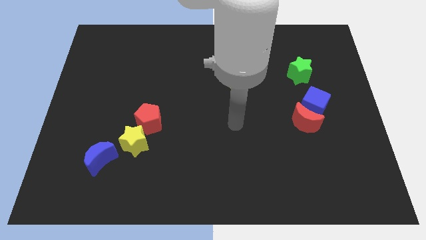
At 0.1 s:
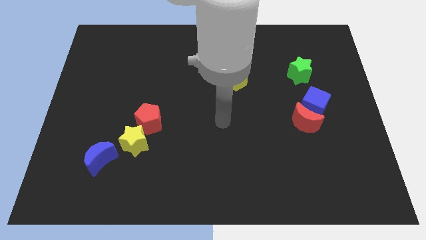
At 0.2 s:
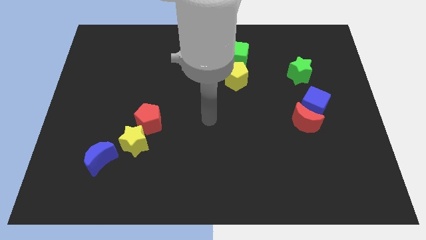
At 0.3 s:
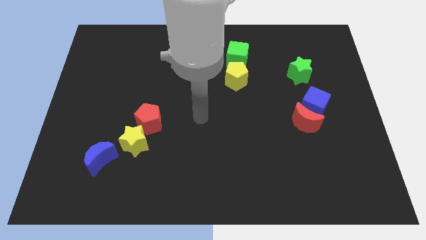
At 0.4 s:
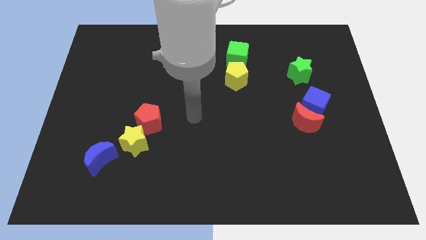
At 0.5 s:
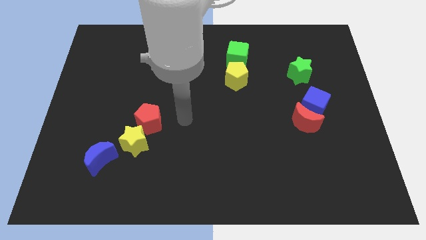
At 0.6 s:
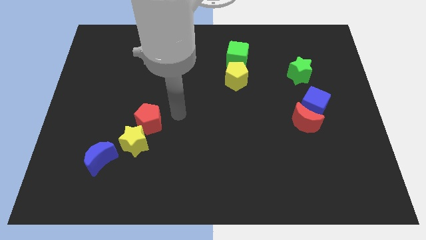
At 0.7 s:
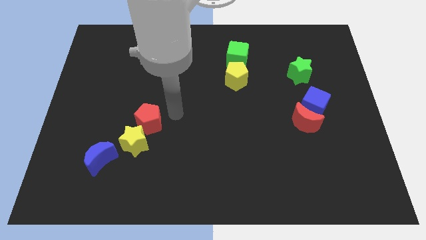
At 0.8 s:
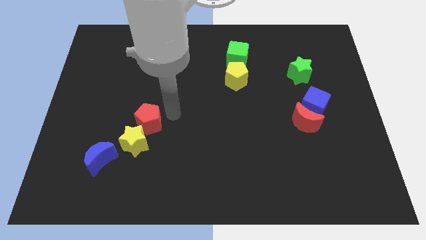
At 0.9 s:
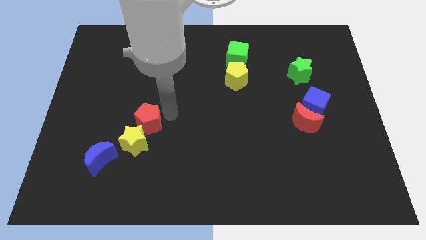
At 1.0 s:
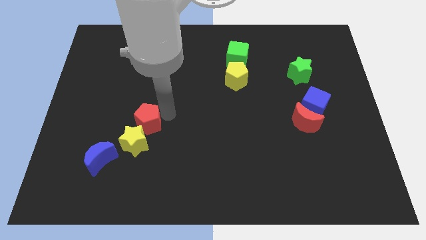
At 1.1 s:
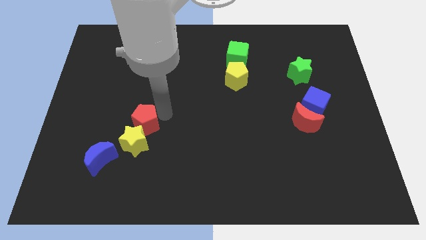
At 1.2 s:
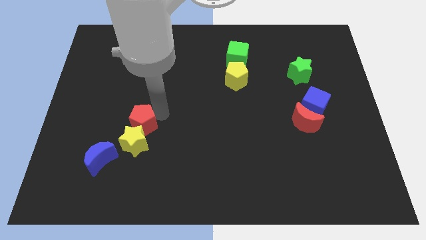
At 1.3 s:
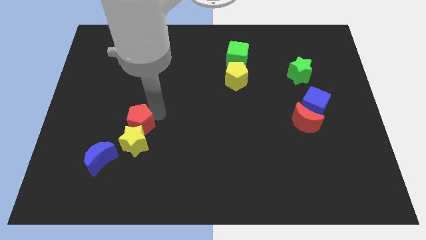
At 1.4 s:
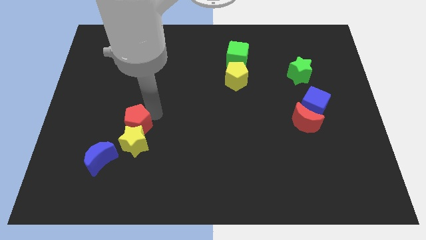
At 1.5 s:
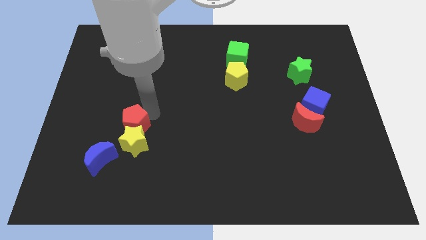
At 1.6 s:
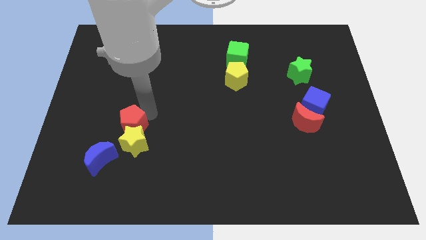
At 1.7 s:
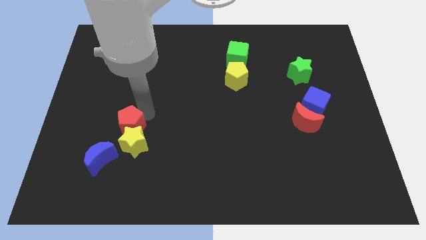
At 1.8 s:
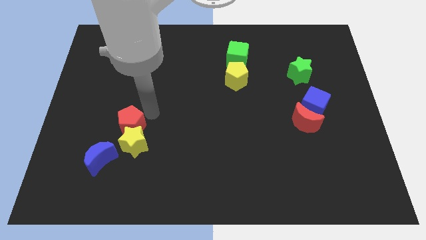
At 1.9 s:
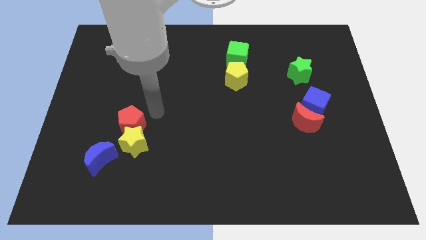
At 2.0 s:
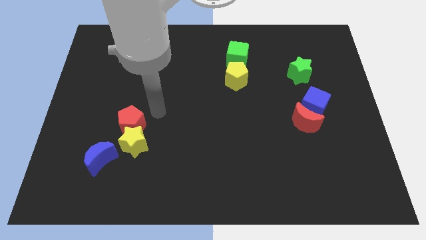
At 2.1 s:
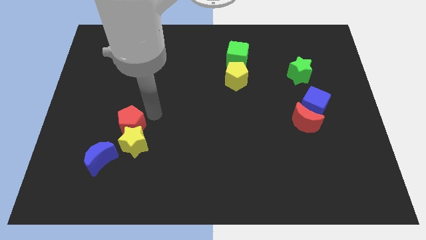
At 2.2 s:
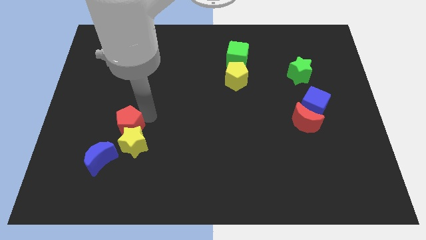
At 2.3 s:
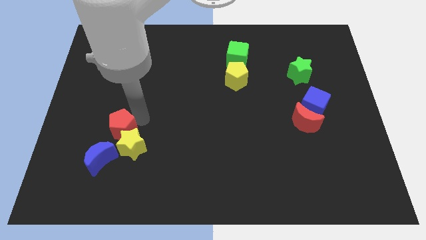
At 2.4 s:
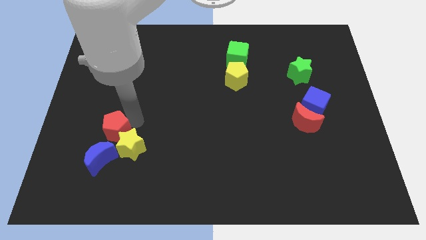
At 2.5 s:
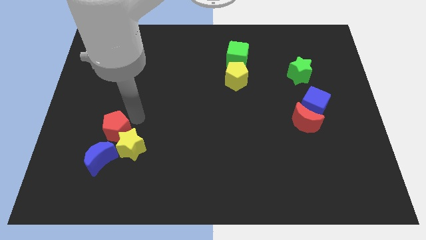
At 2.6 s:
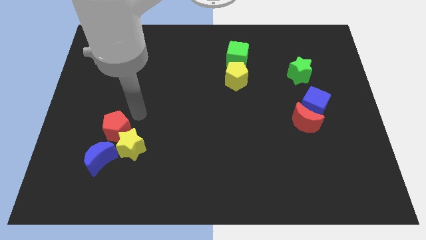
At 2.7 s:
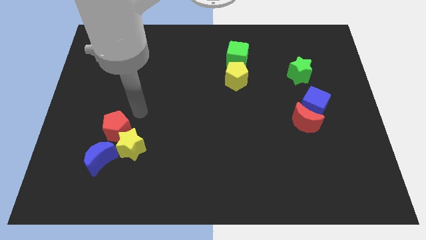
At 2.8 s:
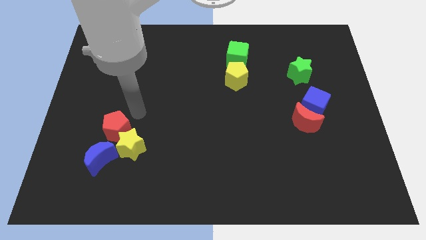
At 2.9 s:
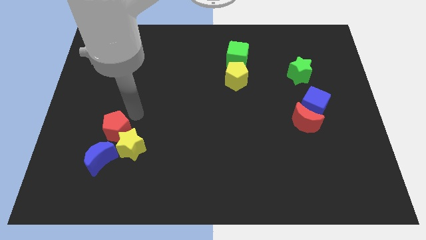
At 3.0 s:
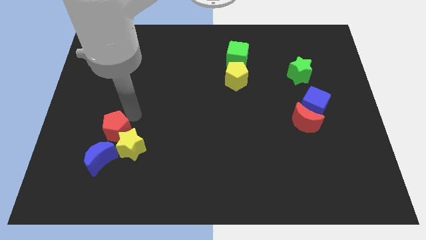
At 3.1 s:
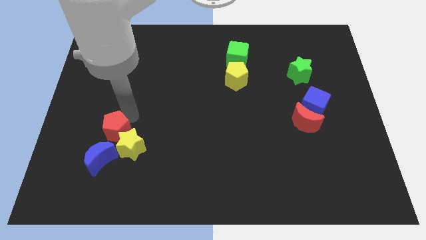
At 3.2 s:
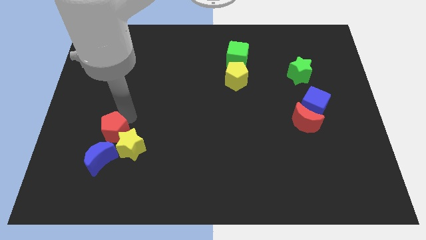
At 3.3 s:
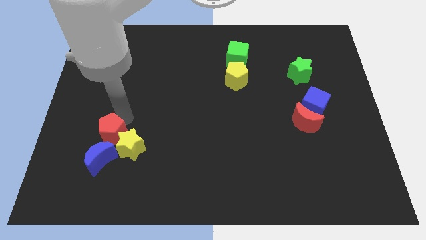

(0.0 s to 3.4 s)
slightly push the red pentagon down and left diagonally

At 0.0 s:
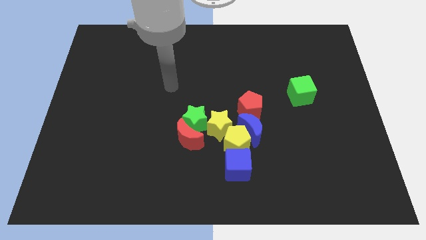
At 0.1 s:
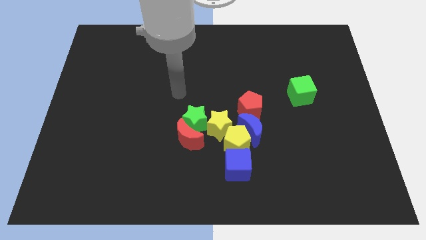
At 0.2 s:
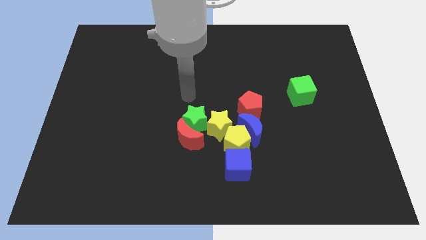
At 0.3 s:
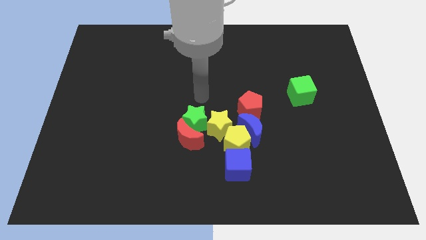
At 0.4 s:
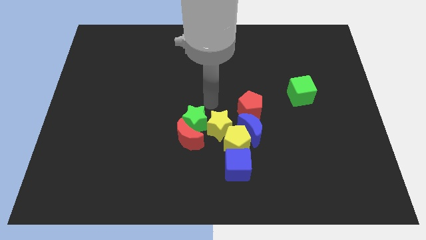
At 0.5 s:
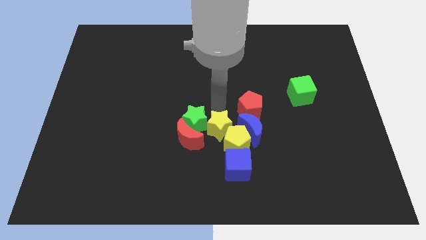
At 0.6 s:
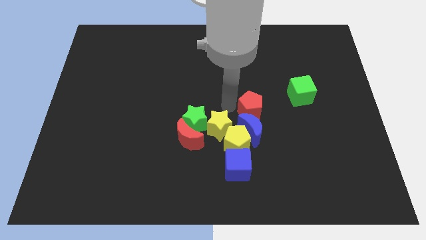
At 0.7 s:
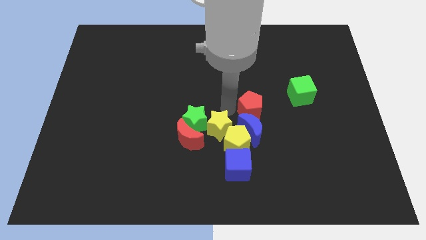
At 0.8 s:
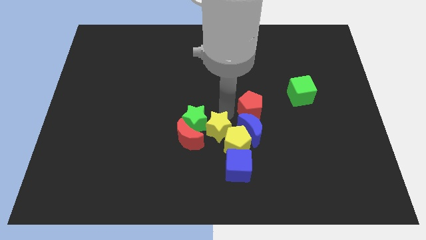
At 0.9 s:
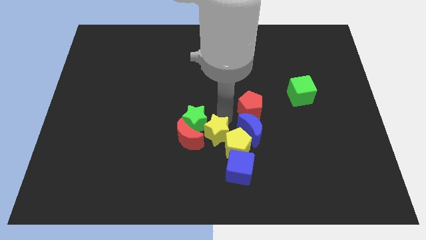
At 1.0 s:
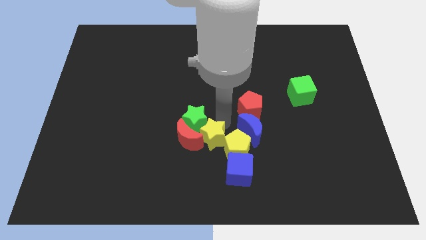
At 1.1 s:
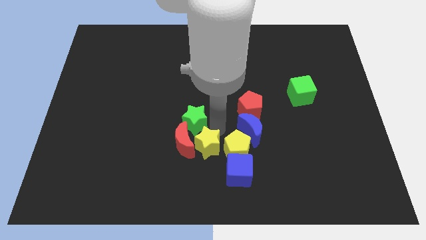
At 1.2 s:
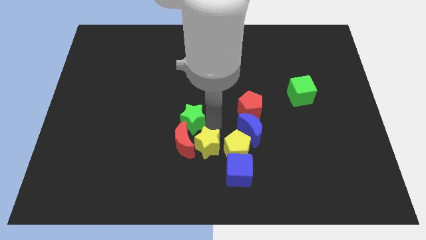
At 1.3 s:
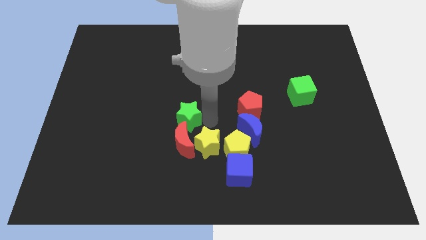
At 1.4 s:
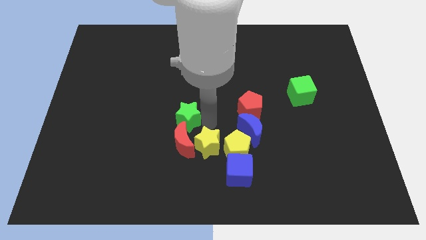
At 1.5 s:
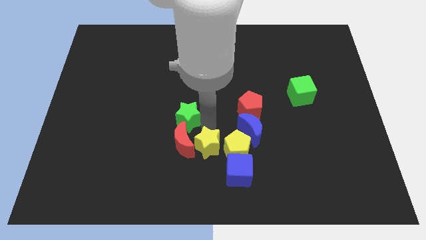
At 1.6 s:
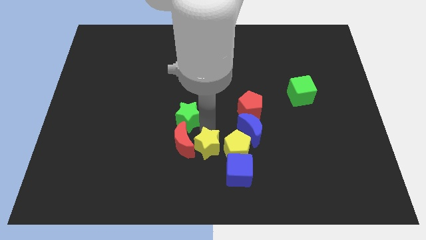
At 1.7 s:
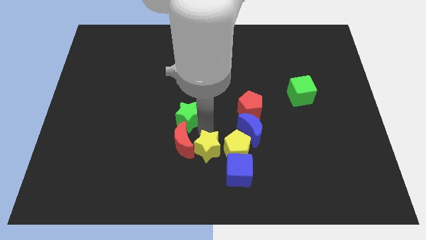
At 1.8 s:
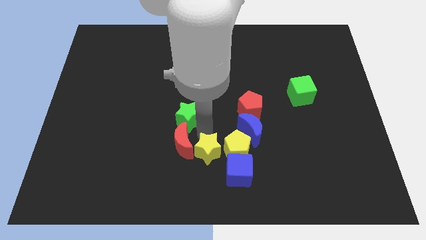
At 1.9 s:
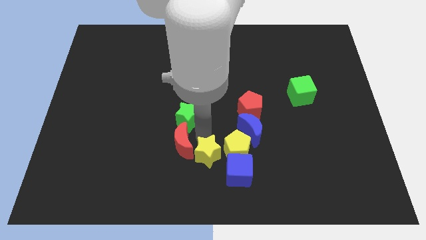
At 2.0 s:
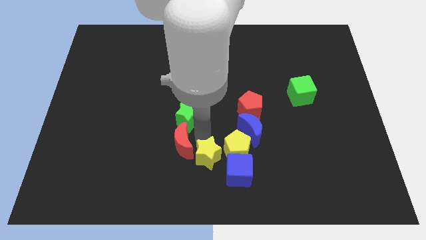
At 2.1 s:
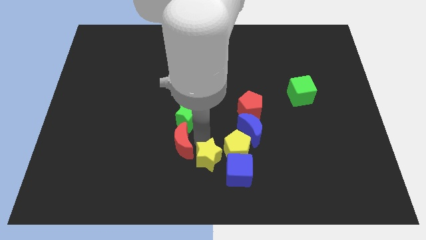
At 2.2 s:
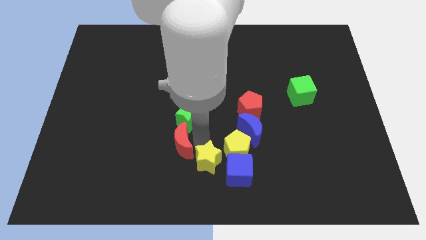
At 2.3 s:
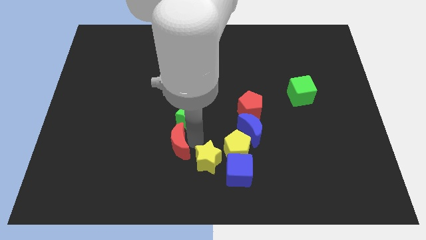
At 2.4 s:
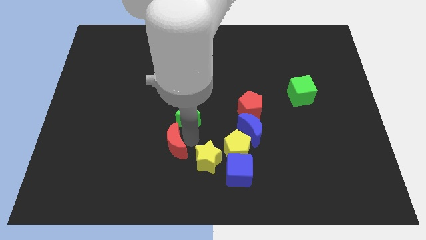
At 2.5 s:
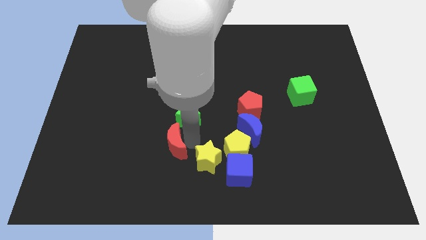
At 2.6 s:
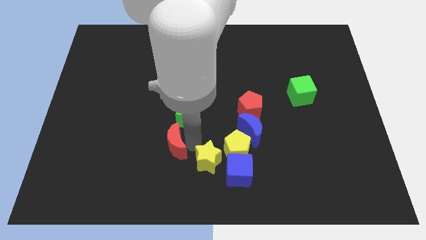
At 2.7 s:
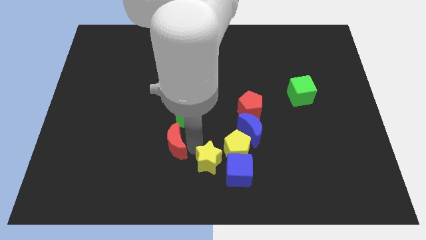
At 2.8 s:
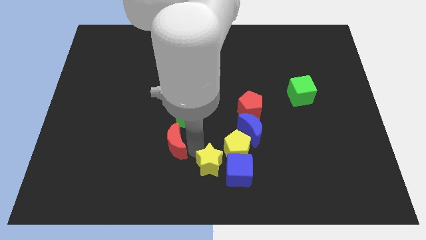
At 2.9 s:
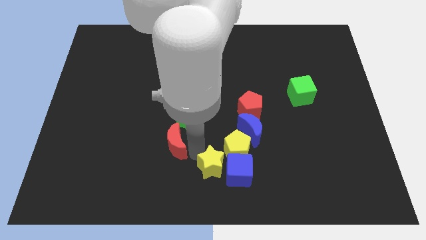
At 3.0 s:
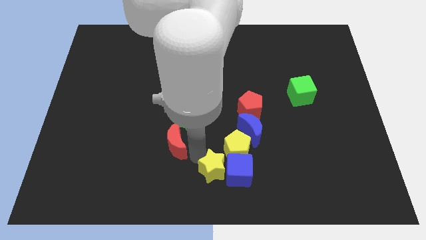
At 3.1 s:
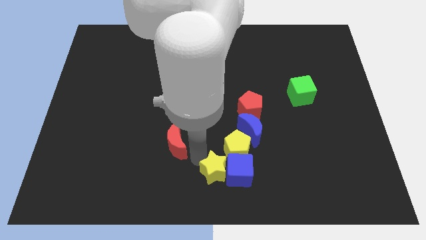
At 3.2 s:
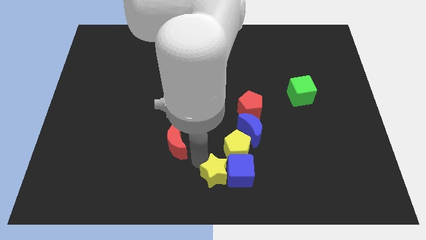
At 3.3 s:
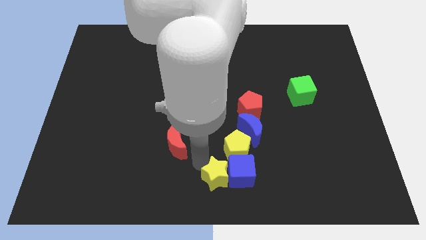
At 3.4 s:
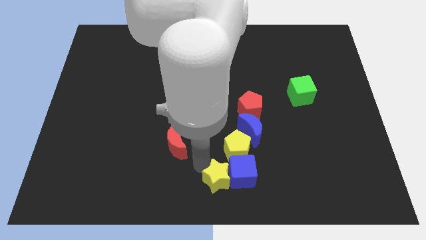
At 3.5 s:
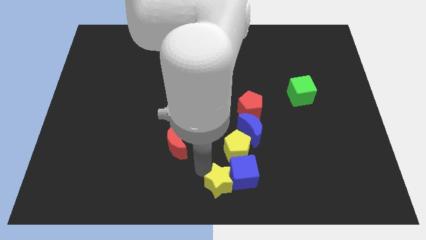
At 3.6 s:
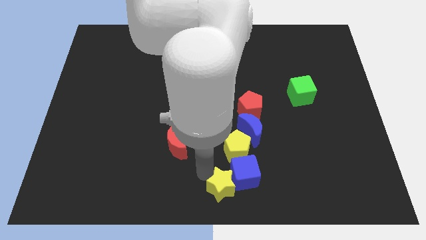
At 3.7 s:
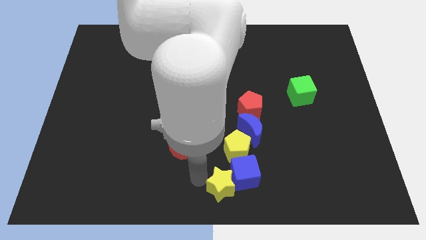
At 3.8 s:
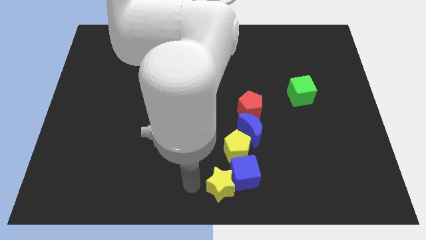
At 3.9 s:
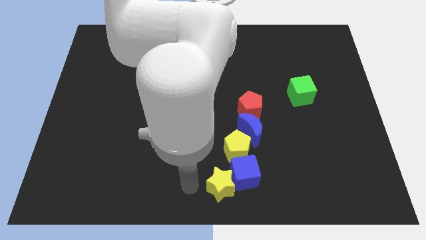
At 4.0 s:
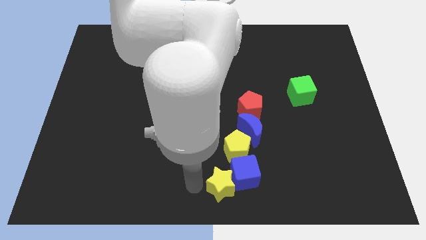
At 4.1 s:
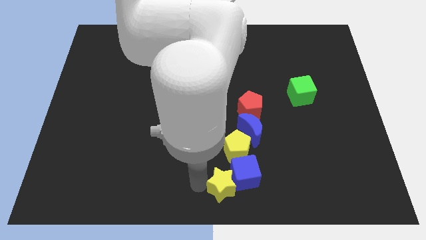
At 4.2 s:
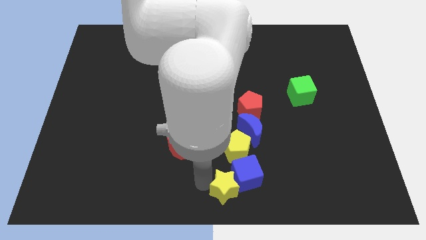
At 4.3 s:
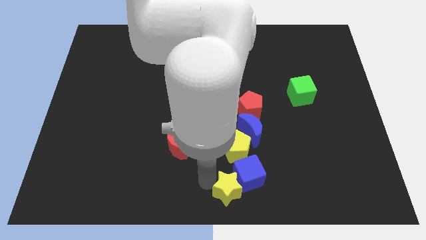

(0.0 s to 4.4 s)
slide the yellow star a little downwards and right
